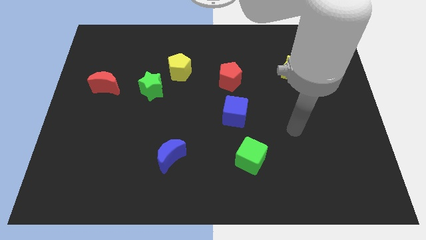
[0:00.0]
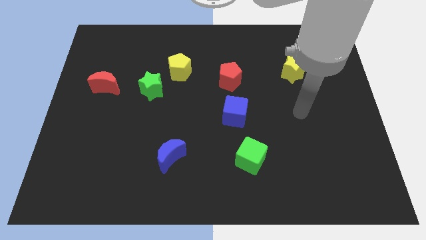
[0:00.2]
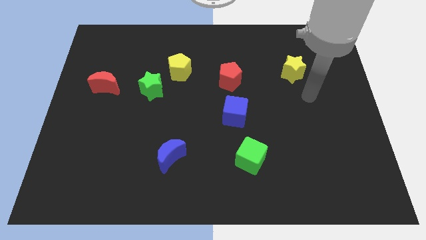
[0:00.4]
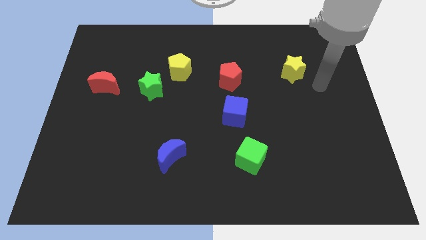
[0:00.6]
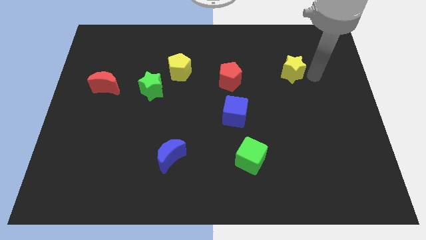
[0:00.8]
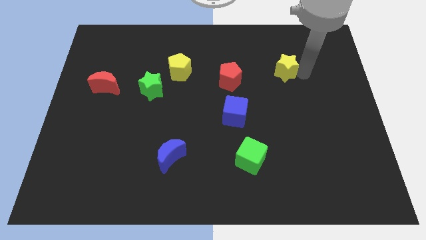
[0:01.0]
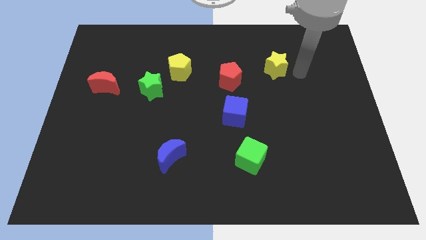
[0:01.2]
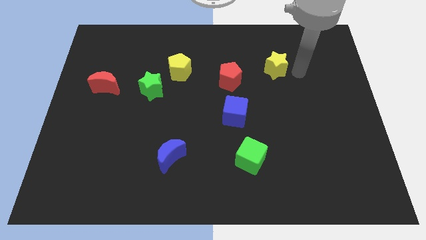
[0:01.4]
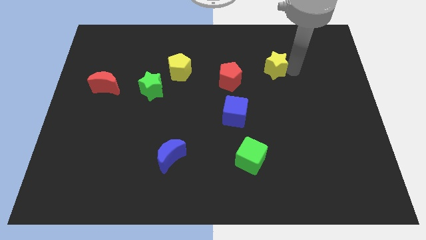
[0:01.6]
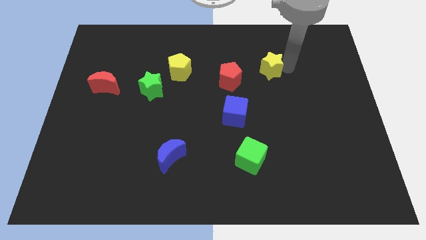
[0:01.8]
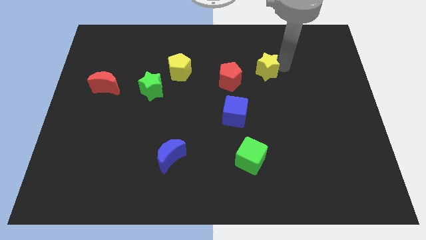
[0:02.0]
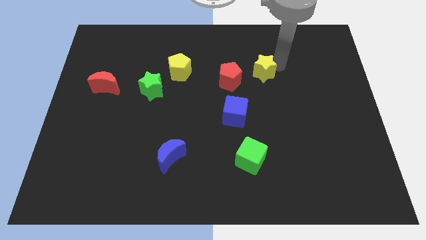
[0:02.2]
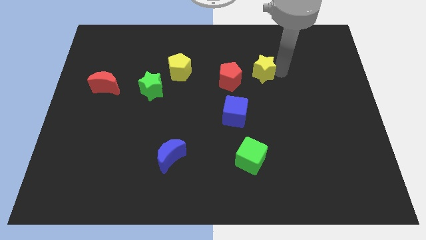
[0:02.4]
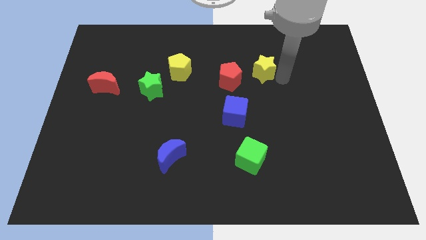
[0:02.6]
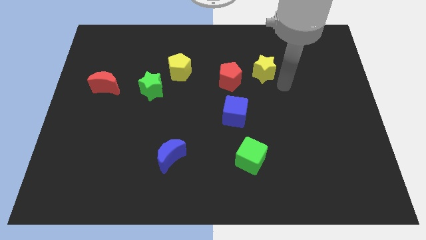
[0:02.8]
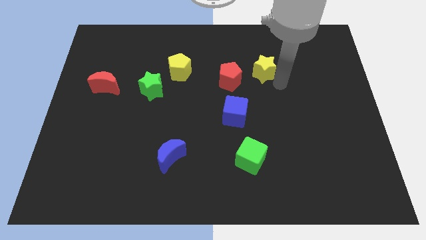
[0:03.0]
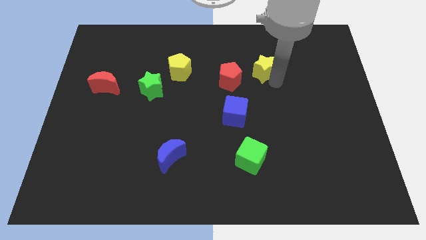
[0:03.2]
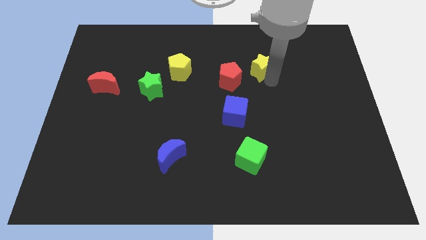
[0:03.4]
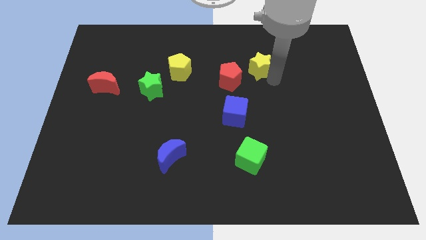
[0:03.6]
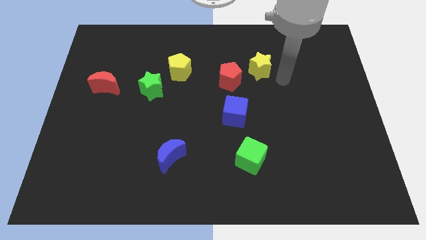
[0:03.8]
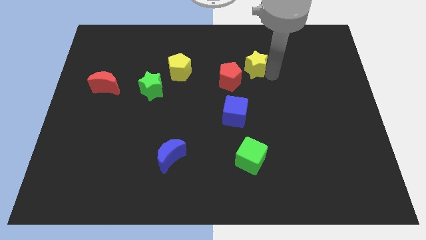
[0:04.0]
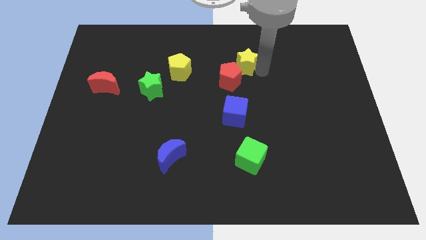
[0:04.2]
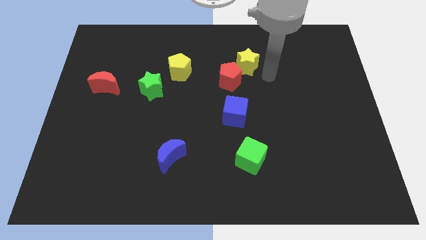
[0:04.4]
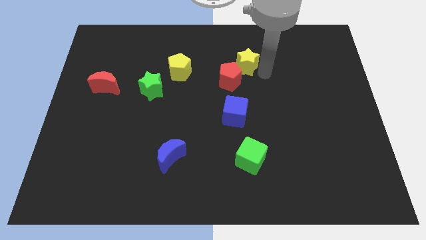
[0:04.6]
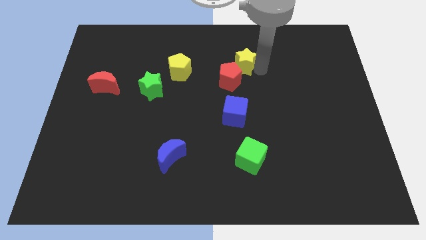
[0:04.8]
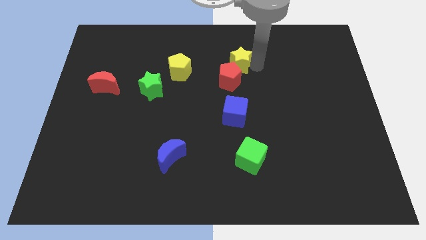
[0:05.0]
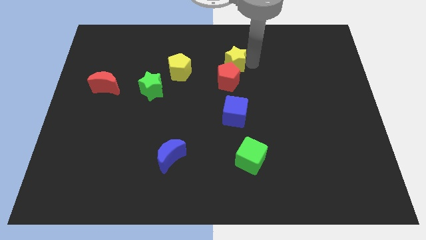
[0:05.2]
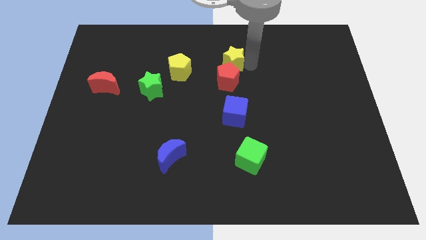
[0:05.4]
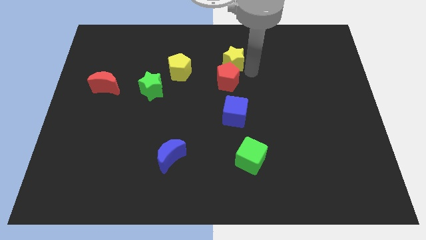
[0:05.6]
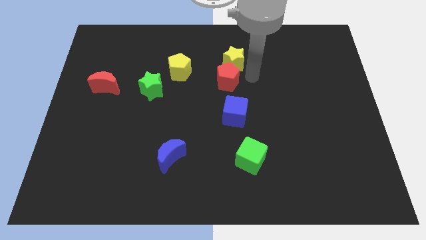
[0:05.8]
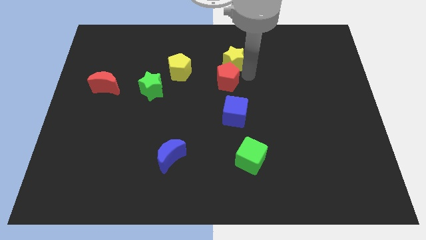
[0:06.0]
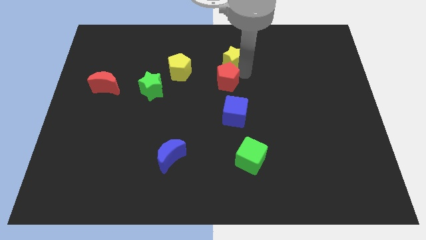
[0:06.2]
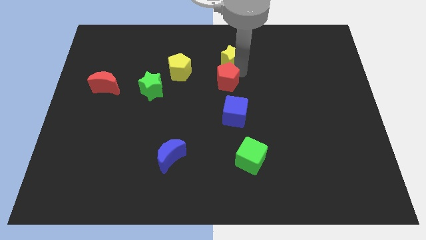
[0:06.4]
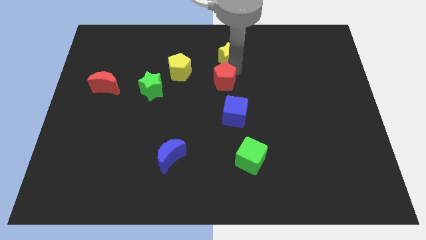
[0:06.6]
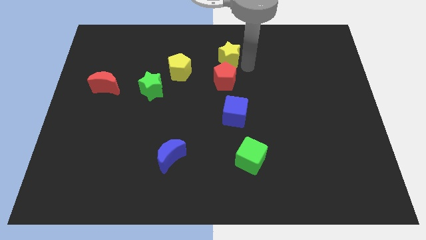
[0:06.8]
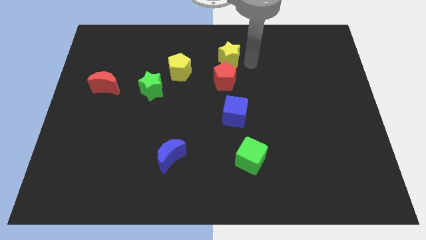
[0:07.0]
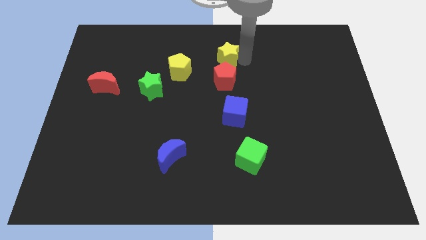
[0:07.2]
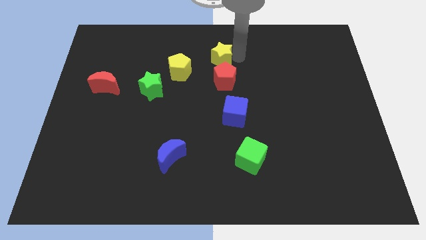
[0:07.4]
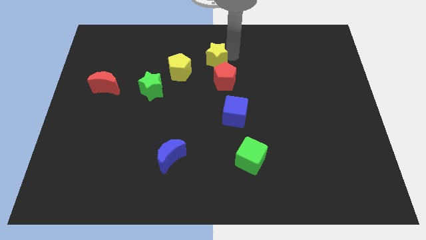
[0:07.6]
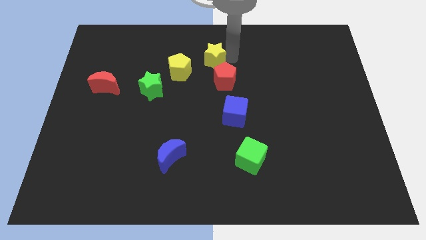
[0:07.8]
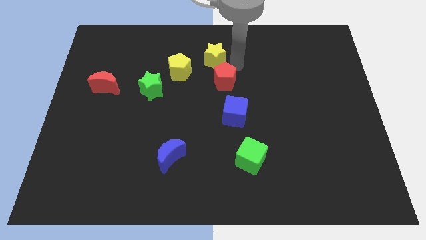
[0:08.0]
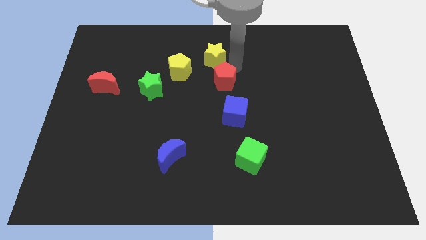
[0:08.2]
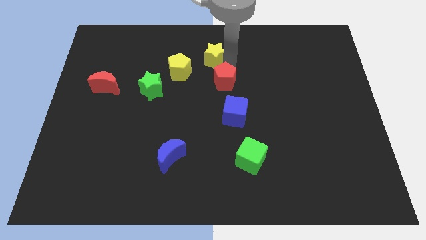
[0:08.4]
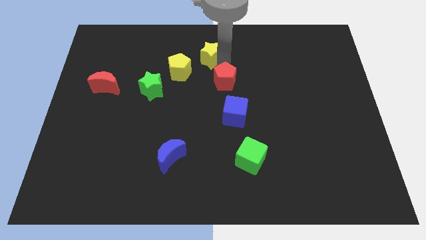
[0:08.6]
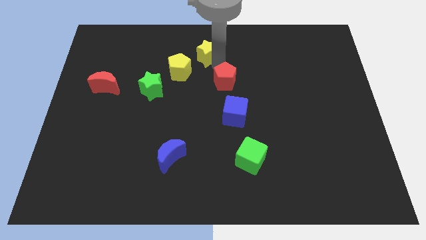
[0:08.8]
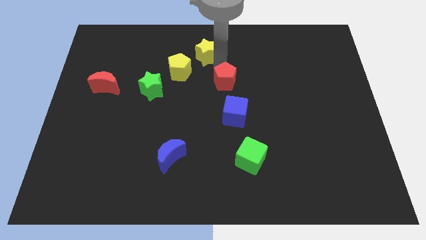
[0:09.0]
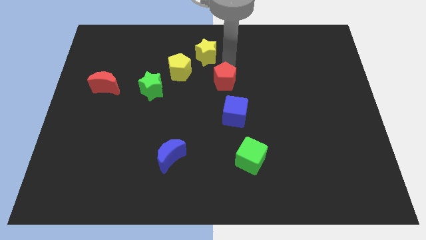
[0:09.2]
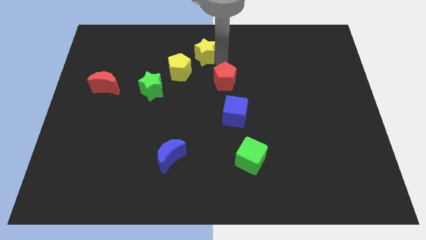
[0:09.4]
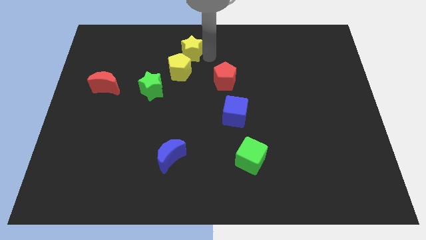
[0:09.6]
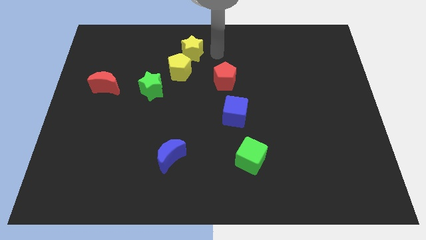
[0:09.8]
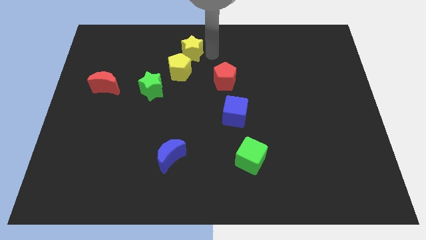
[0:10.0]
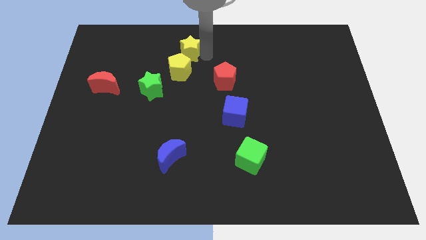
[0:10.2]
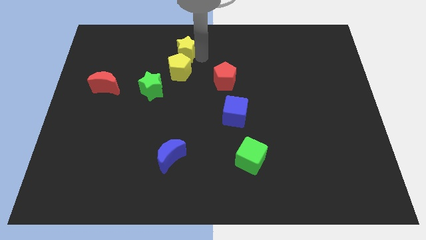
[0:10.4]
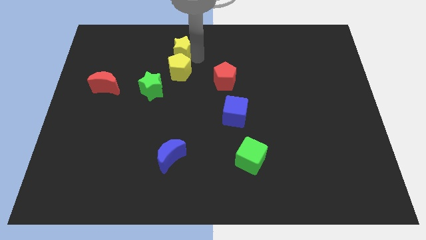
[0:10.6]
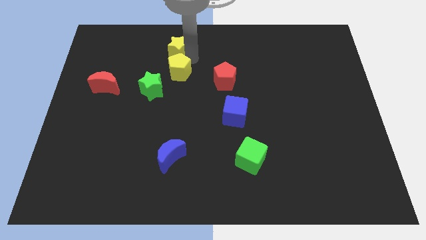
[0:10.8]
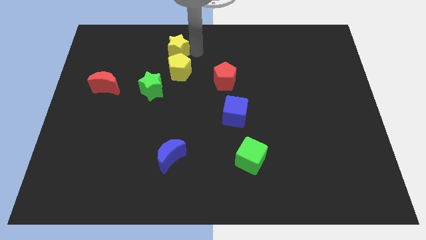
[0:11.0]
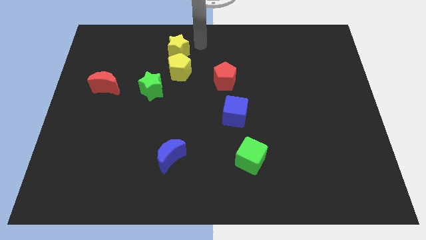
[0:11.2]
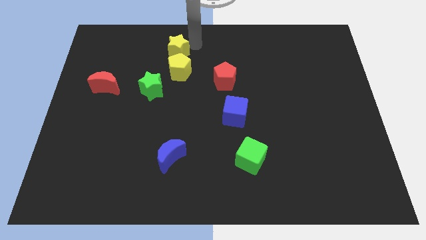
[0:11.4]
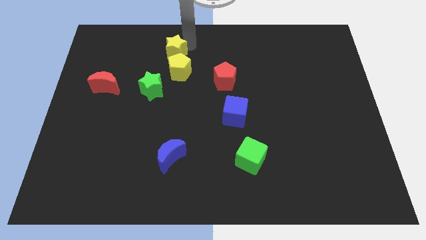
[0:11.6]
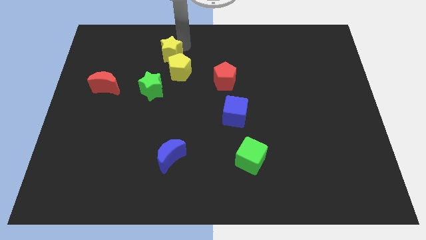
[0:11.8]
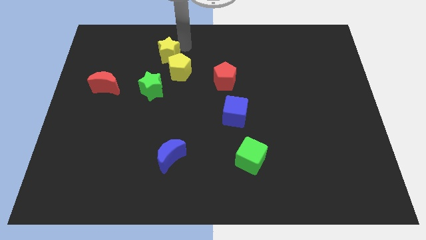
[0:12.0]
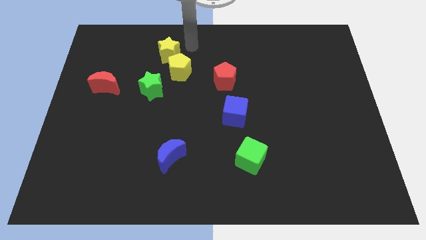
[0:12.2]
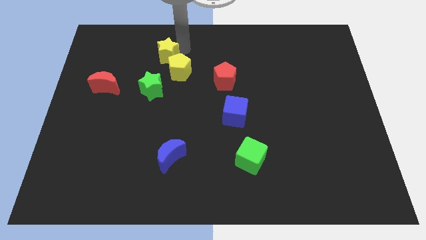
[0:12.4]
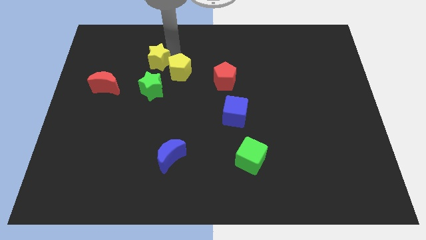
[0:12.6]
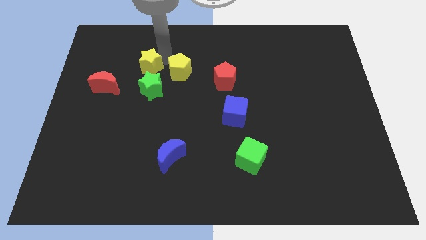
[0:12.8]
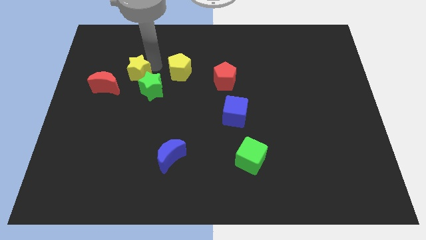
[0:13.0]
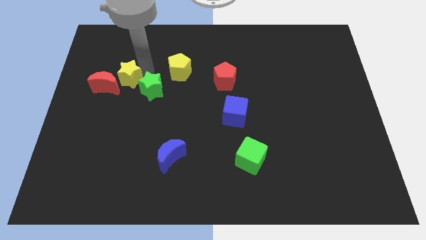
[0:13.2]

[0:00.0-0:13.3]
push the yellow star next to the red moon

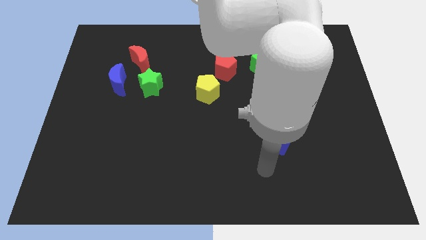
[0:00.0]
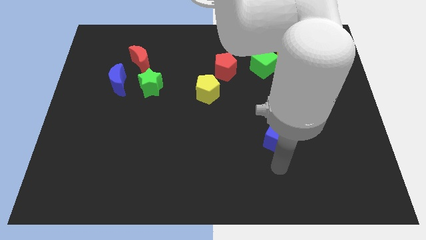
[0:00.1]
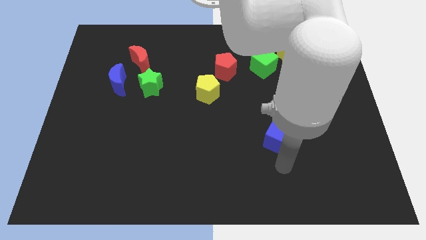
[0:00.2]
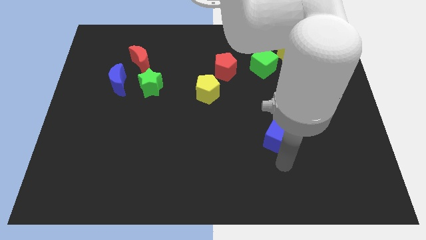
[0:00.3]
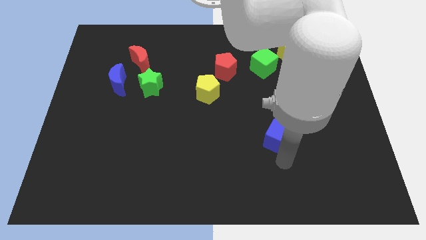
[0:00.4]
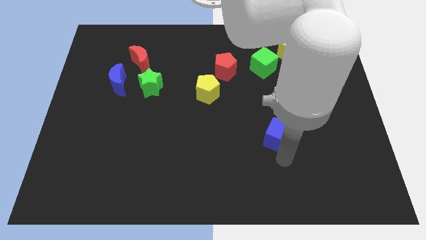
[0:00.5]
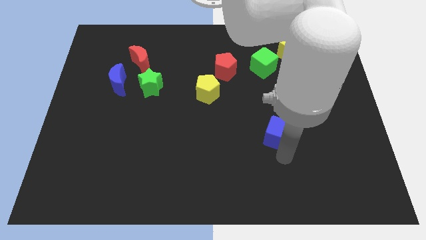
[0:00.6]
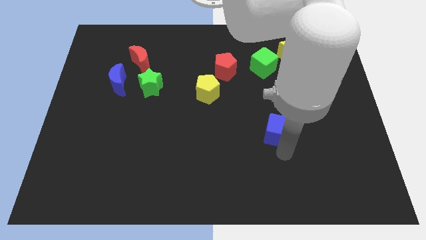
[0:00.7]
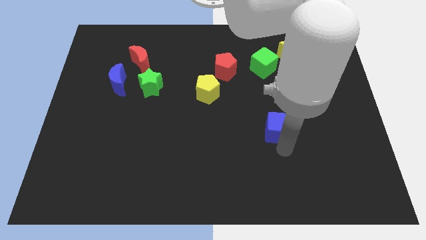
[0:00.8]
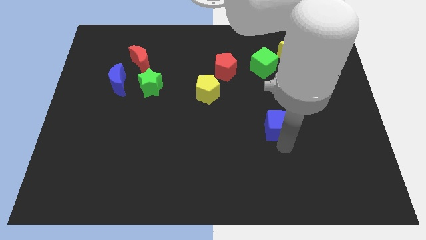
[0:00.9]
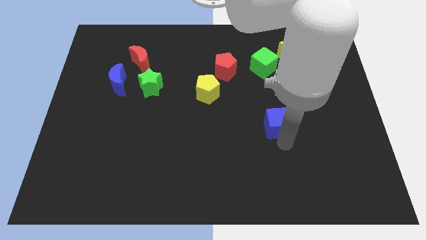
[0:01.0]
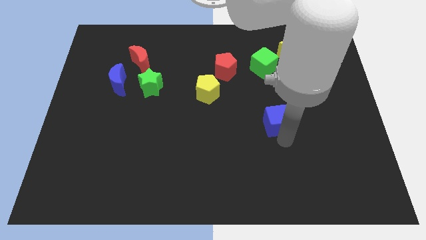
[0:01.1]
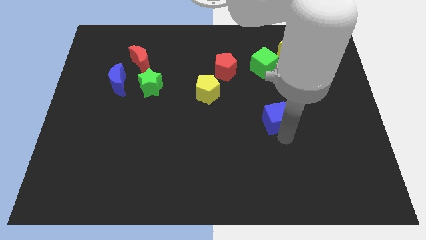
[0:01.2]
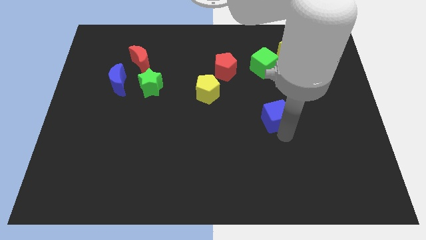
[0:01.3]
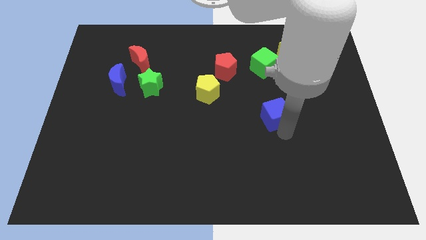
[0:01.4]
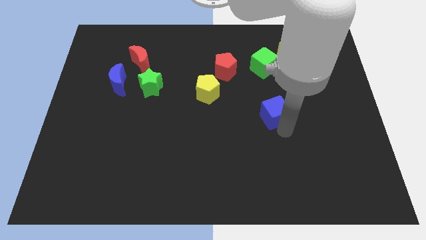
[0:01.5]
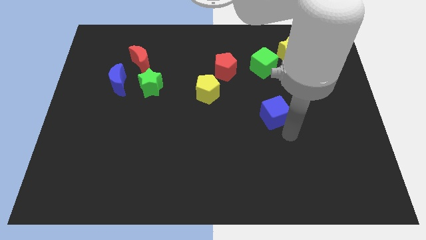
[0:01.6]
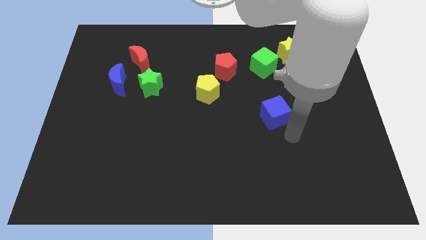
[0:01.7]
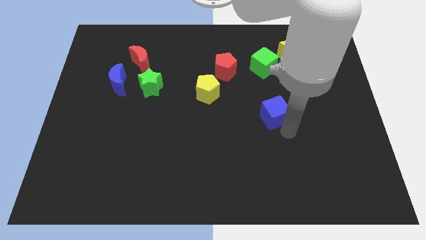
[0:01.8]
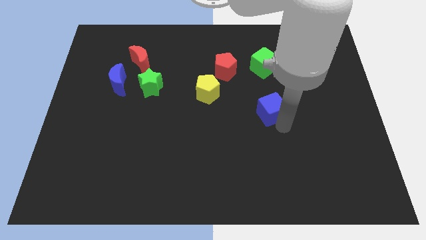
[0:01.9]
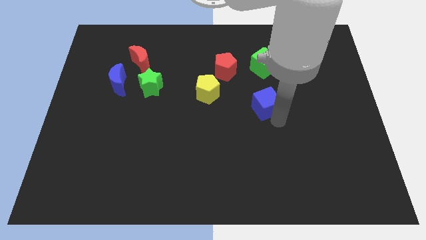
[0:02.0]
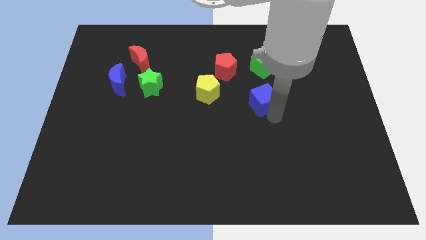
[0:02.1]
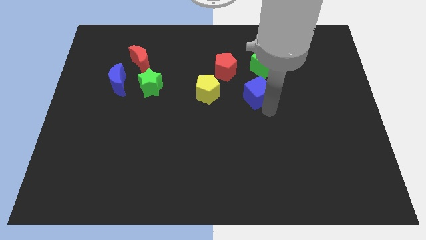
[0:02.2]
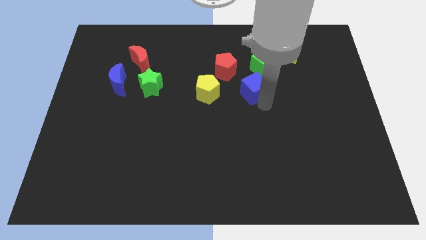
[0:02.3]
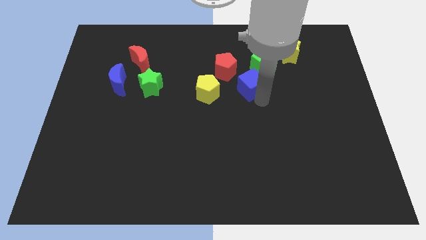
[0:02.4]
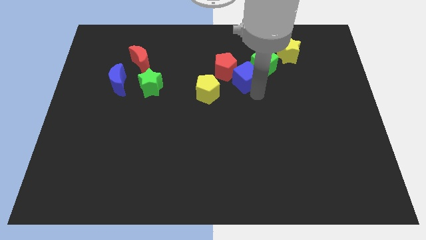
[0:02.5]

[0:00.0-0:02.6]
move the blue cube towards the red pentagon
